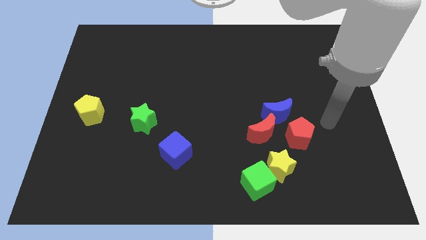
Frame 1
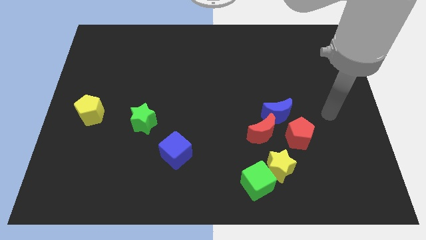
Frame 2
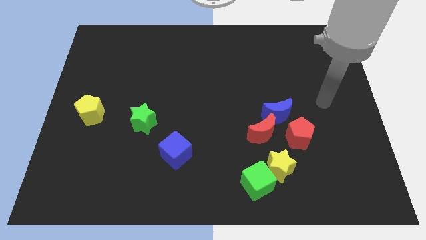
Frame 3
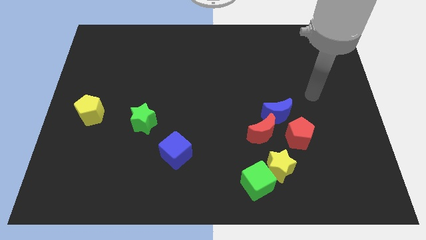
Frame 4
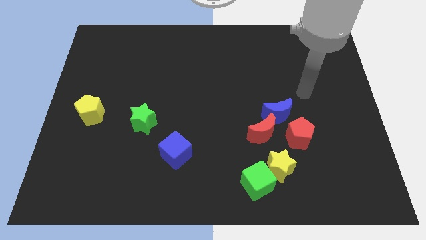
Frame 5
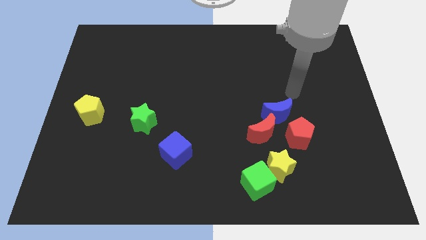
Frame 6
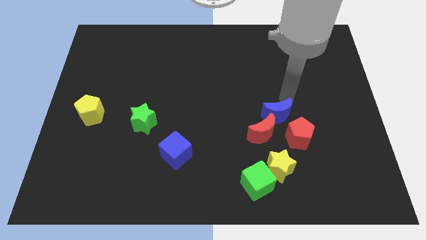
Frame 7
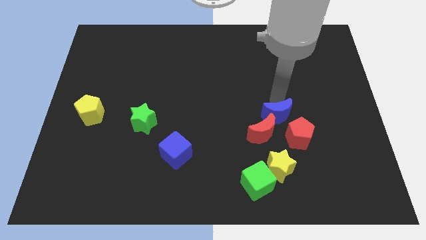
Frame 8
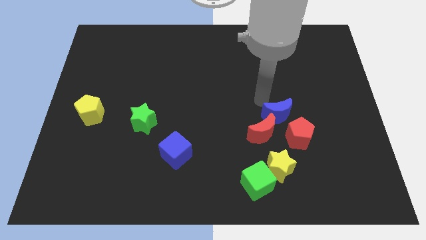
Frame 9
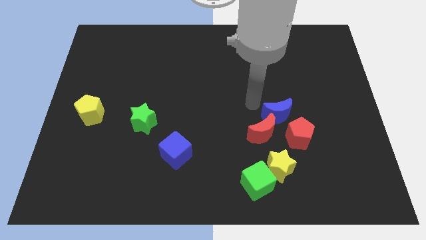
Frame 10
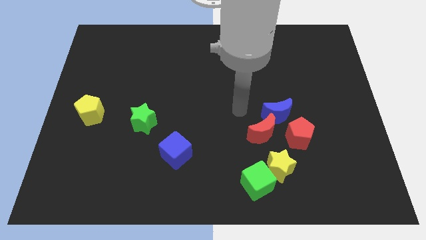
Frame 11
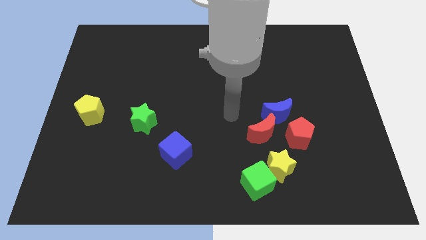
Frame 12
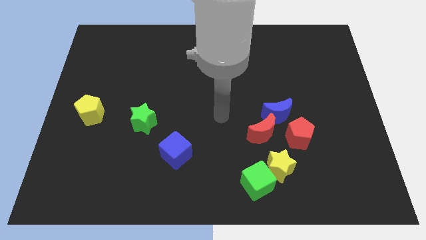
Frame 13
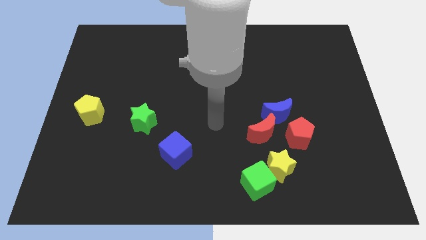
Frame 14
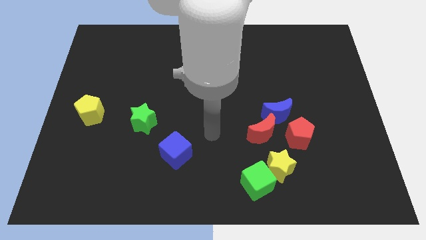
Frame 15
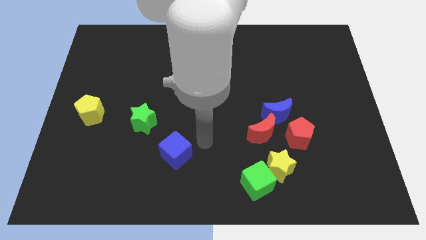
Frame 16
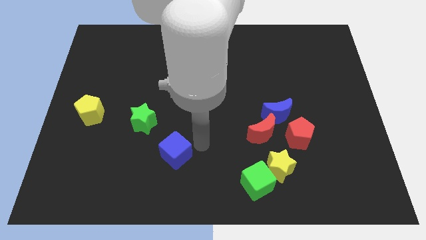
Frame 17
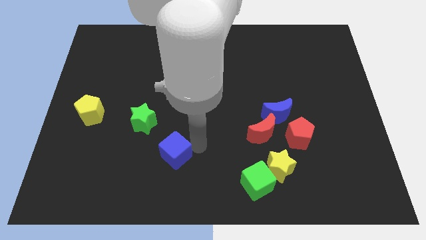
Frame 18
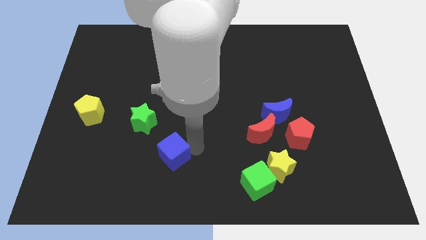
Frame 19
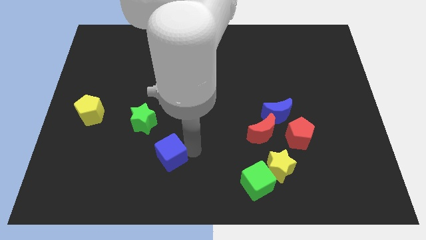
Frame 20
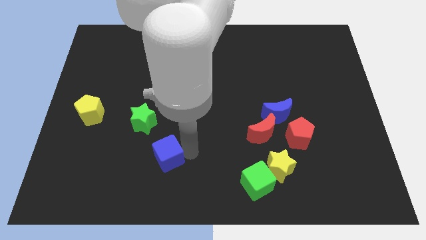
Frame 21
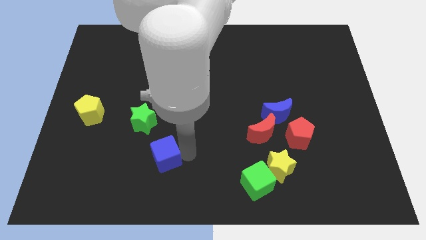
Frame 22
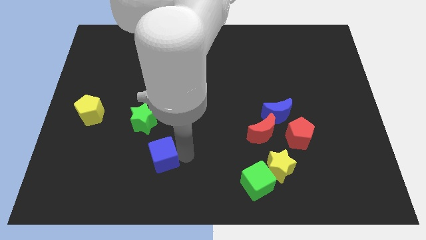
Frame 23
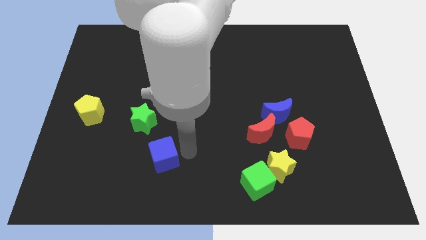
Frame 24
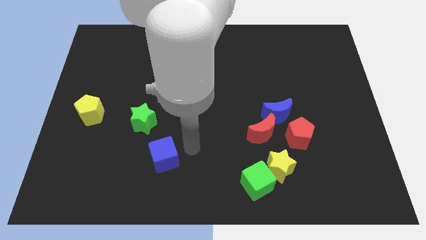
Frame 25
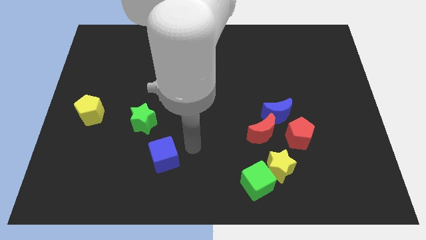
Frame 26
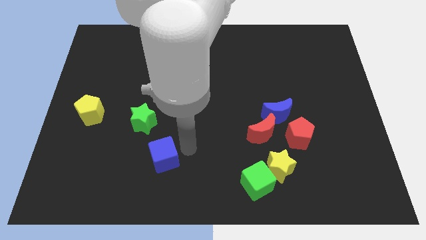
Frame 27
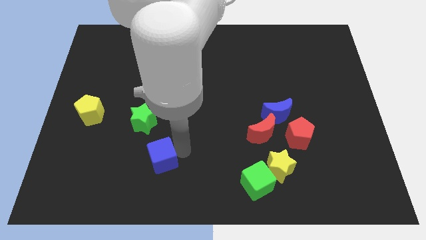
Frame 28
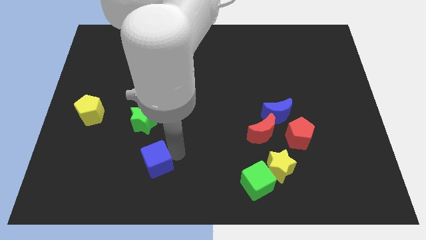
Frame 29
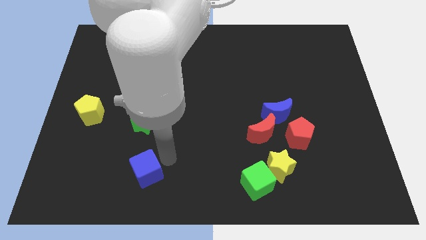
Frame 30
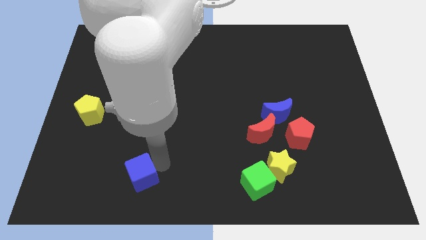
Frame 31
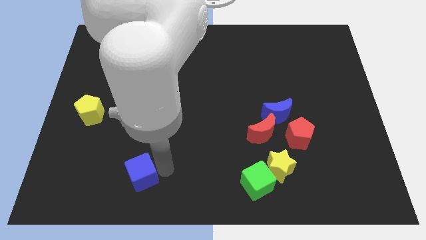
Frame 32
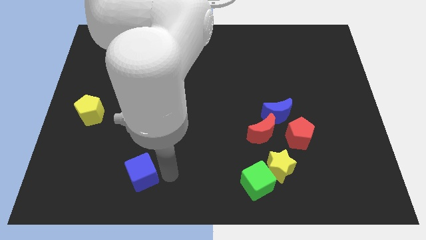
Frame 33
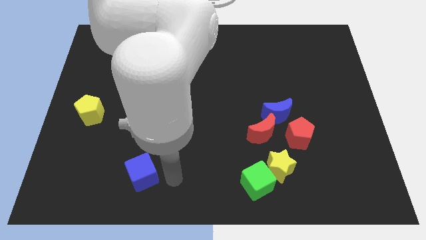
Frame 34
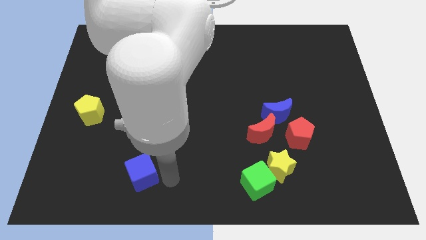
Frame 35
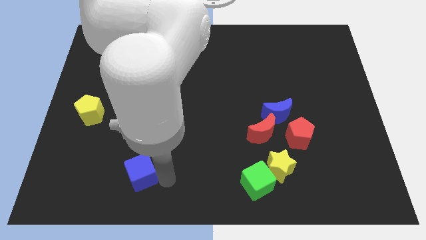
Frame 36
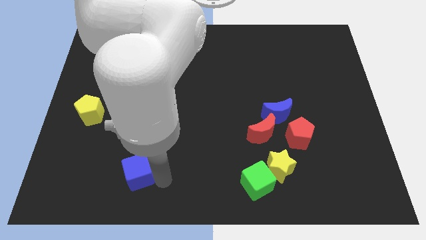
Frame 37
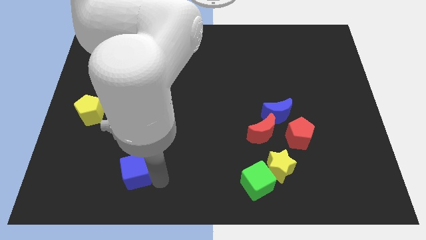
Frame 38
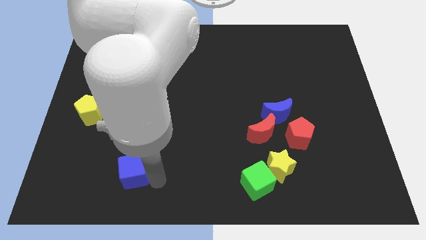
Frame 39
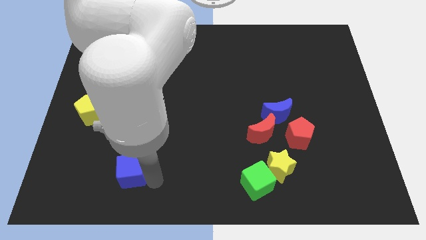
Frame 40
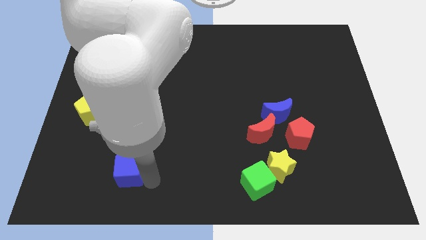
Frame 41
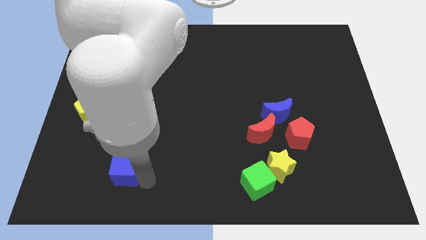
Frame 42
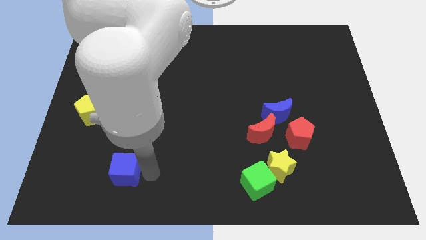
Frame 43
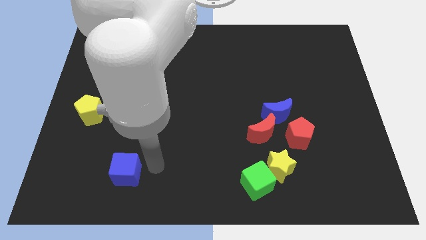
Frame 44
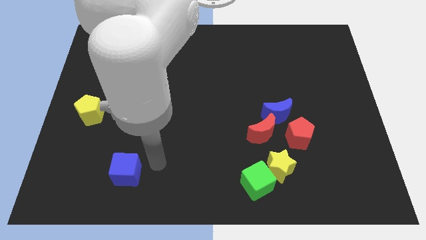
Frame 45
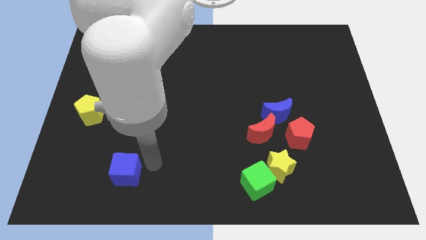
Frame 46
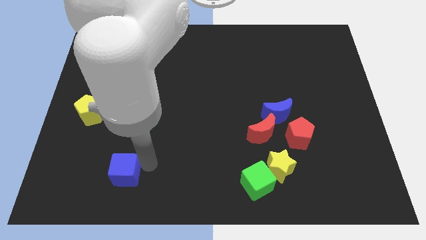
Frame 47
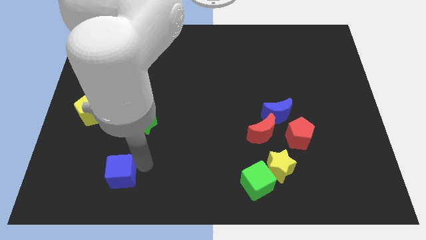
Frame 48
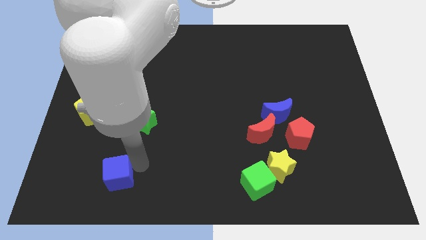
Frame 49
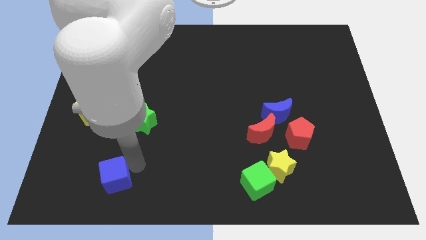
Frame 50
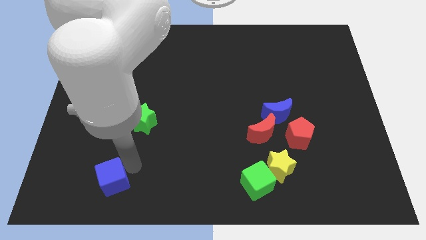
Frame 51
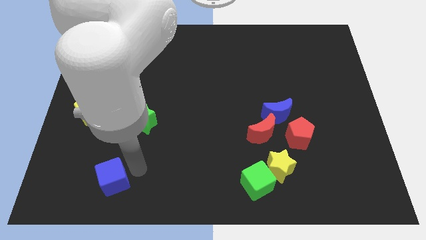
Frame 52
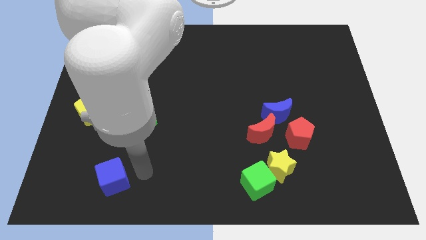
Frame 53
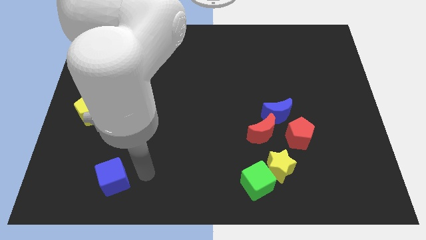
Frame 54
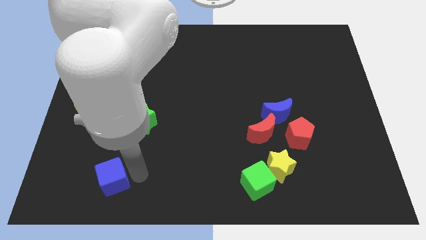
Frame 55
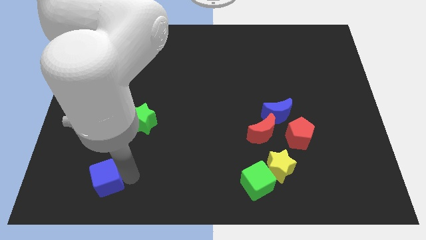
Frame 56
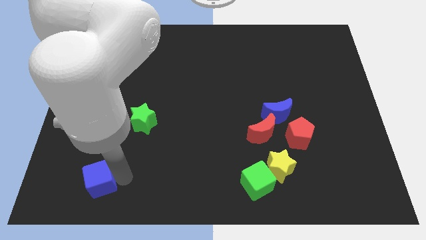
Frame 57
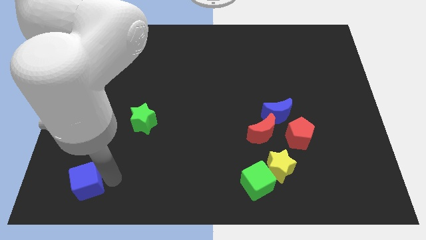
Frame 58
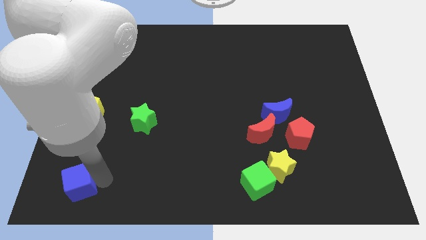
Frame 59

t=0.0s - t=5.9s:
put the blue cube to the lower left corner

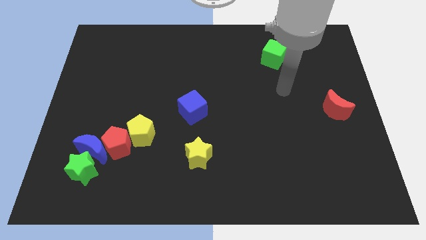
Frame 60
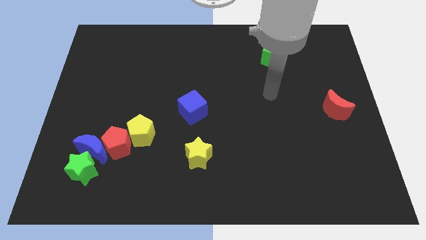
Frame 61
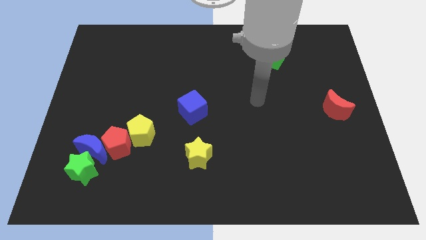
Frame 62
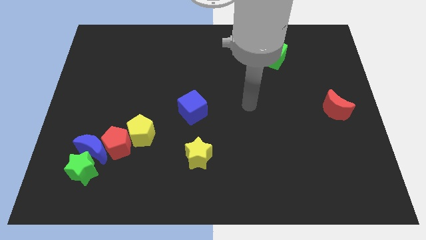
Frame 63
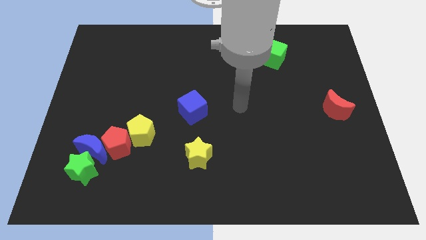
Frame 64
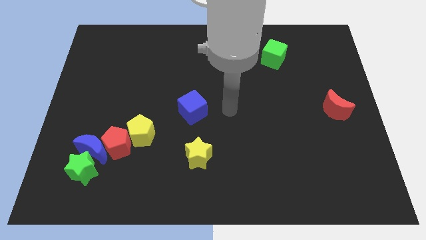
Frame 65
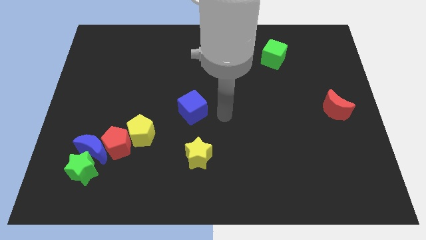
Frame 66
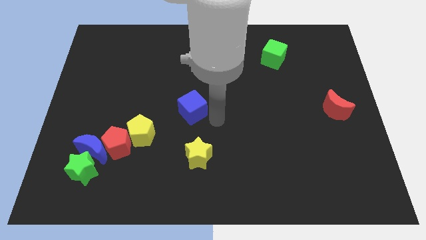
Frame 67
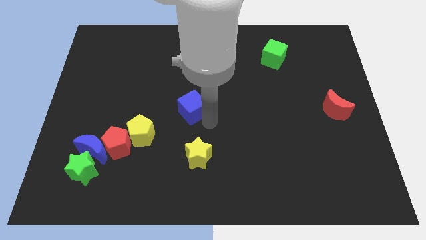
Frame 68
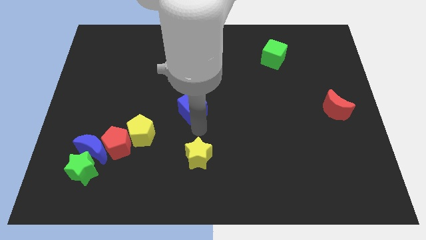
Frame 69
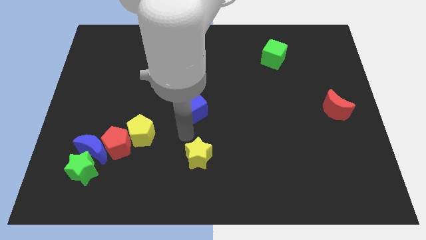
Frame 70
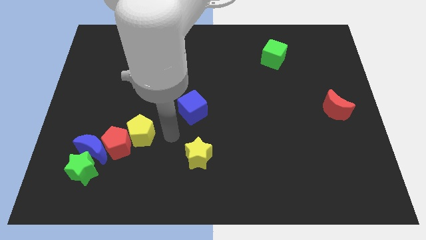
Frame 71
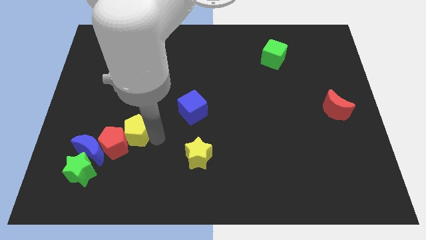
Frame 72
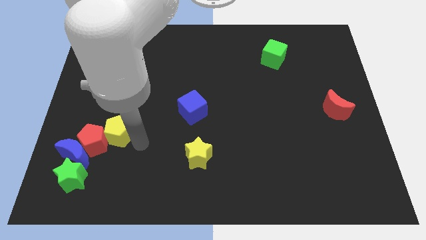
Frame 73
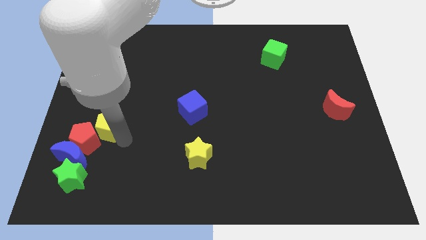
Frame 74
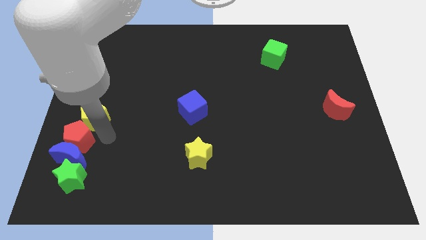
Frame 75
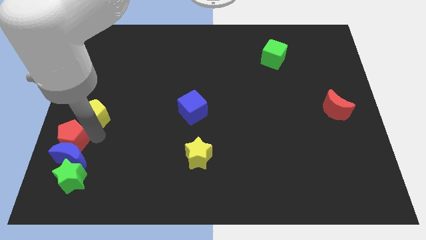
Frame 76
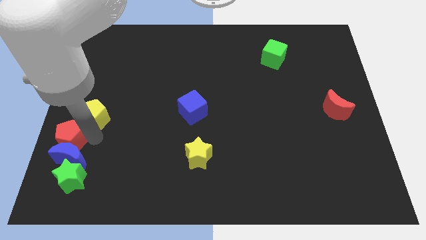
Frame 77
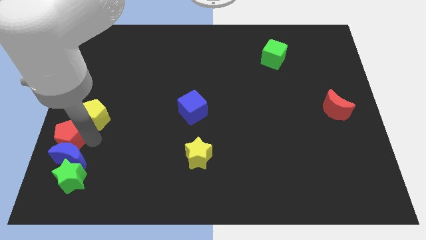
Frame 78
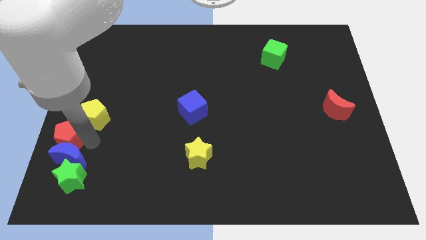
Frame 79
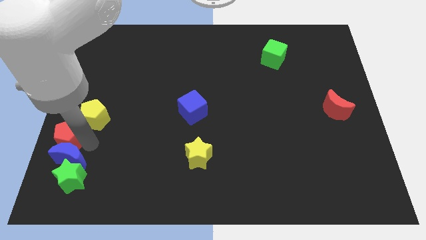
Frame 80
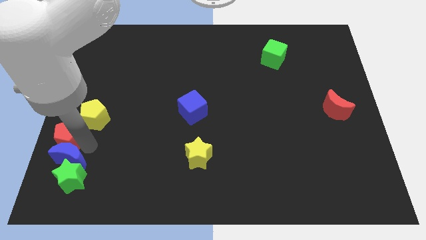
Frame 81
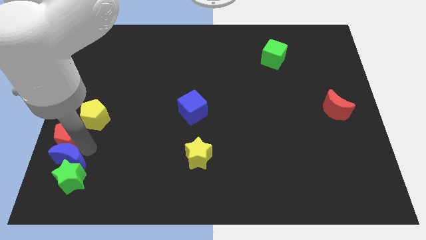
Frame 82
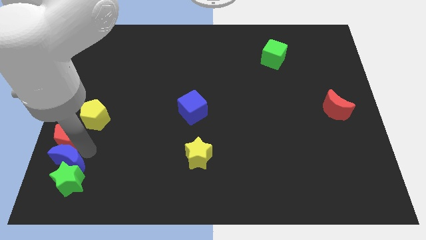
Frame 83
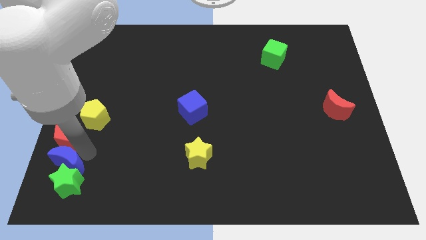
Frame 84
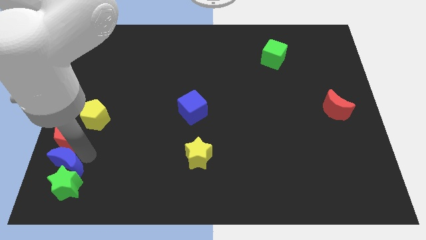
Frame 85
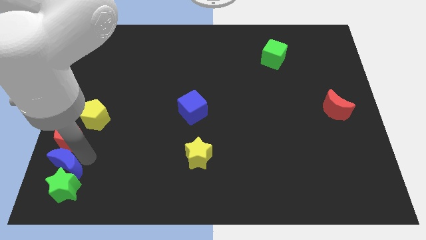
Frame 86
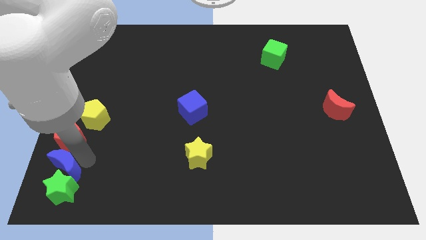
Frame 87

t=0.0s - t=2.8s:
slide the blue moon to the bottom left of the board
